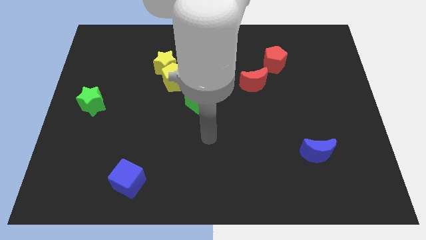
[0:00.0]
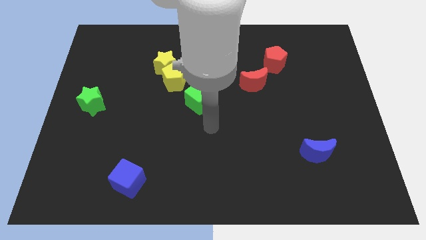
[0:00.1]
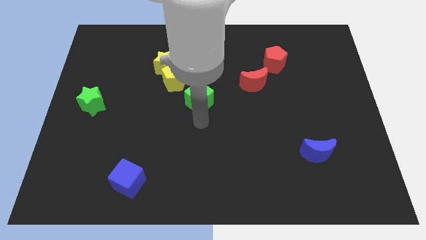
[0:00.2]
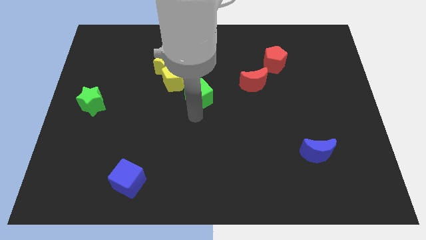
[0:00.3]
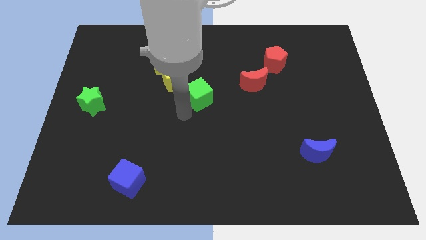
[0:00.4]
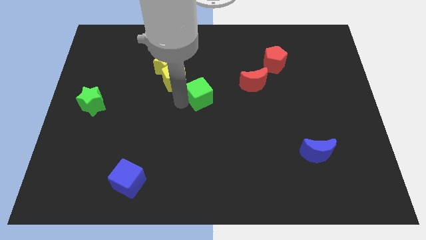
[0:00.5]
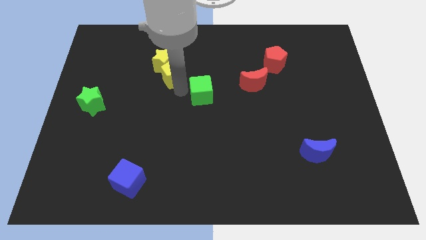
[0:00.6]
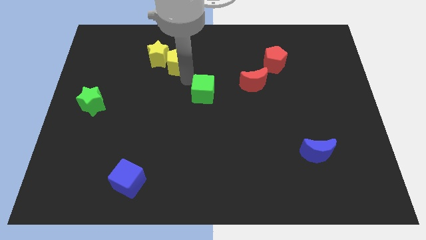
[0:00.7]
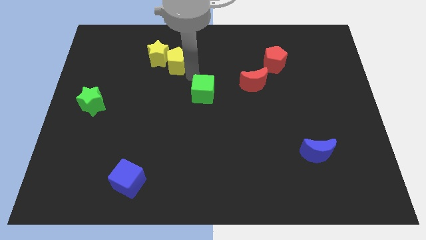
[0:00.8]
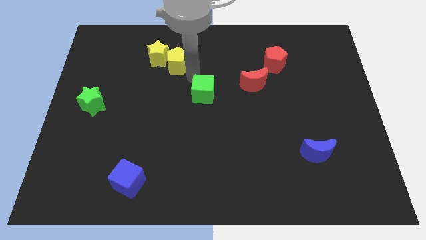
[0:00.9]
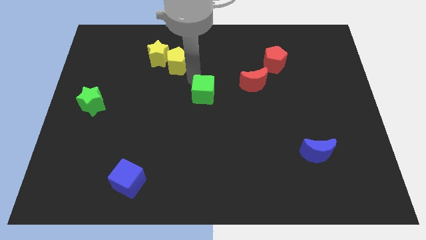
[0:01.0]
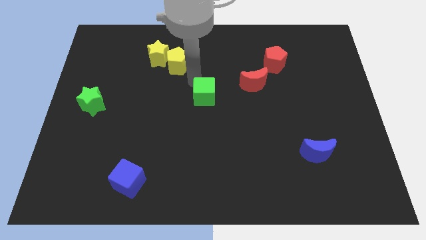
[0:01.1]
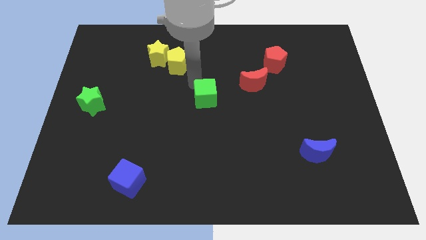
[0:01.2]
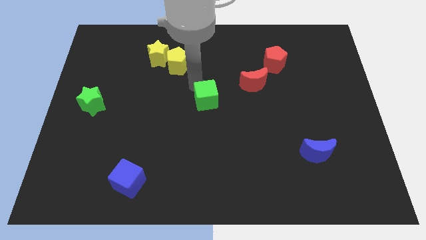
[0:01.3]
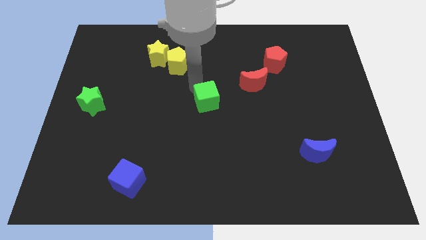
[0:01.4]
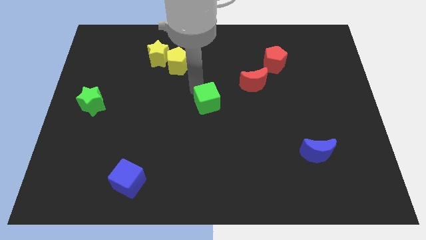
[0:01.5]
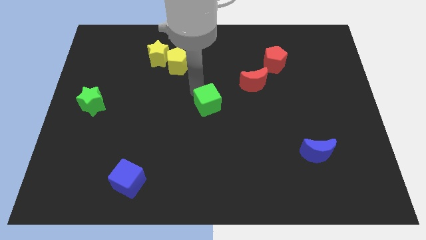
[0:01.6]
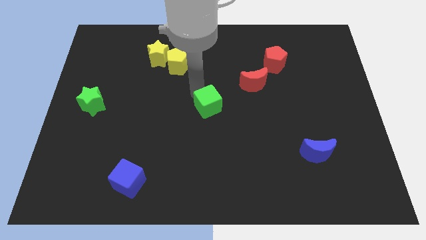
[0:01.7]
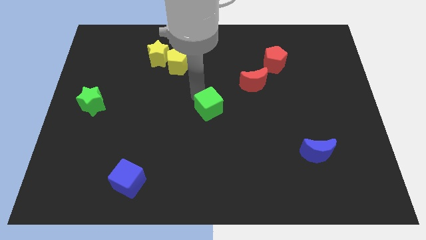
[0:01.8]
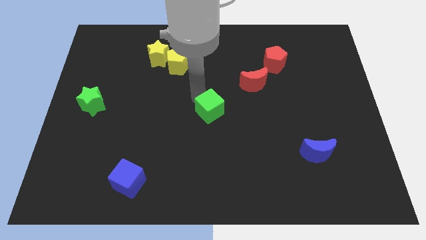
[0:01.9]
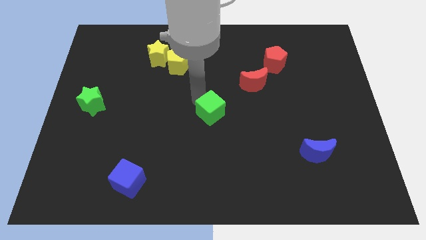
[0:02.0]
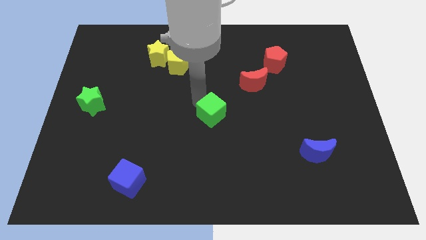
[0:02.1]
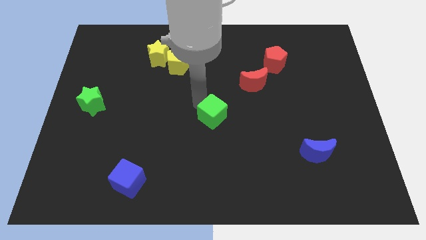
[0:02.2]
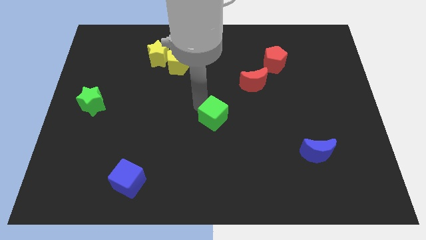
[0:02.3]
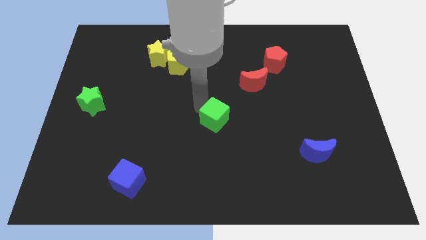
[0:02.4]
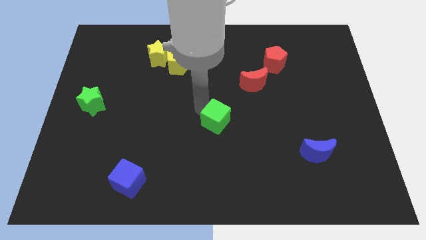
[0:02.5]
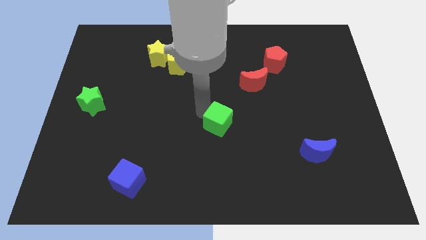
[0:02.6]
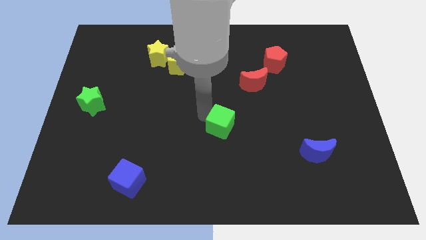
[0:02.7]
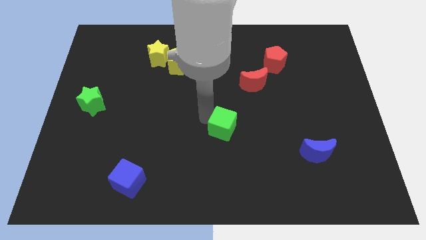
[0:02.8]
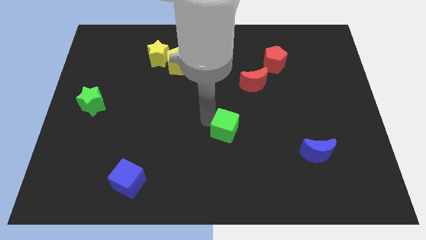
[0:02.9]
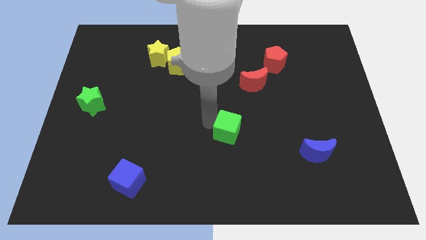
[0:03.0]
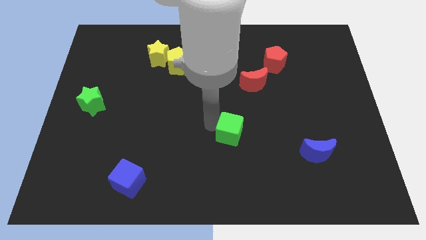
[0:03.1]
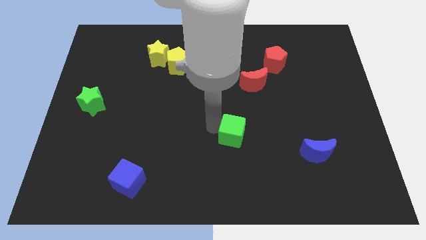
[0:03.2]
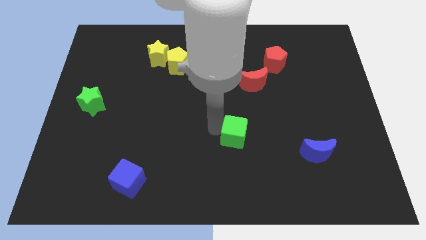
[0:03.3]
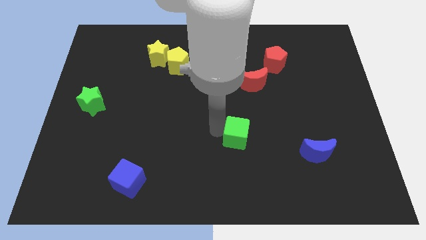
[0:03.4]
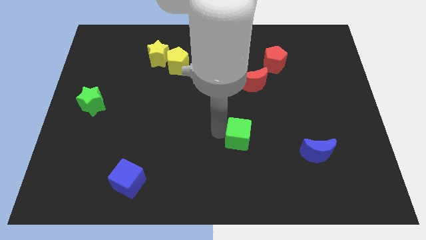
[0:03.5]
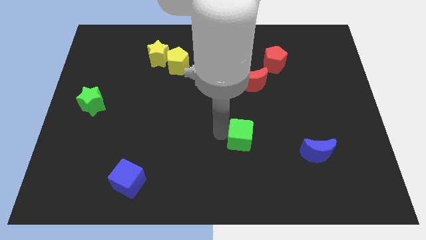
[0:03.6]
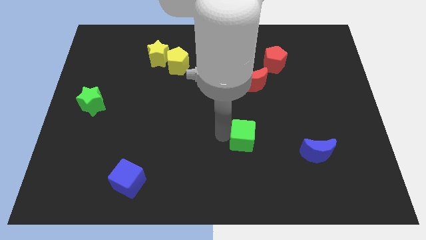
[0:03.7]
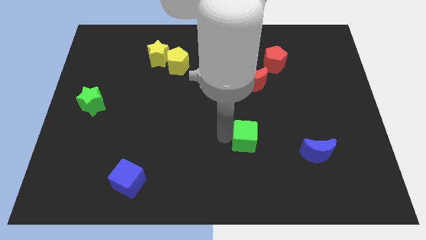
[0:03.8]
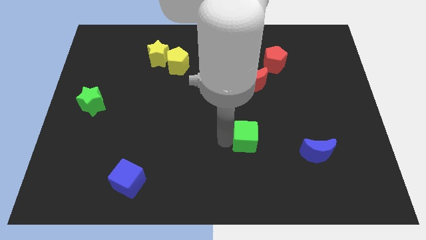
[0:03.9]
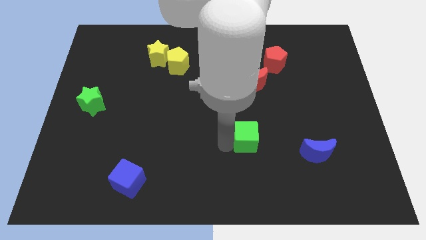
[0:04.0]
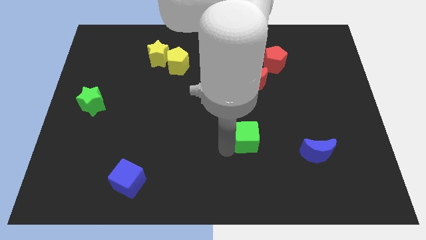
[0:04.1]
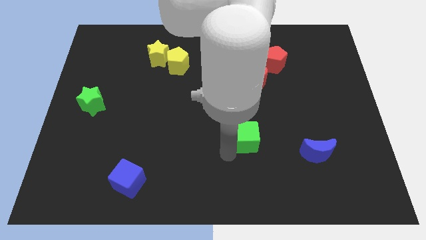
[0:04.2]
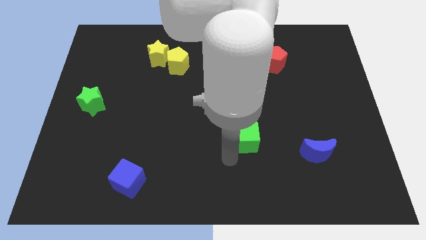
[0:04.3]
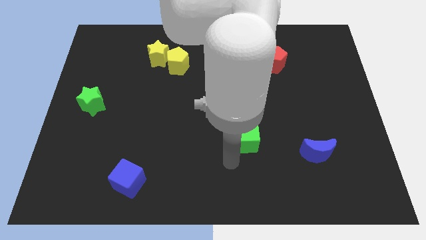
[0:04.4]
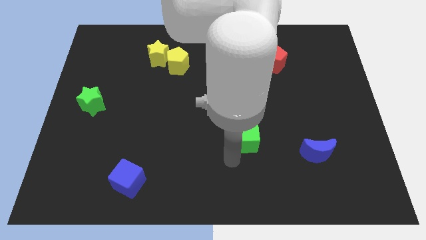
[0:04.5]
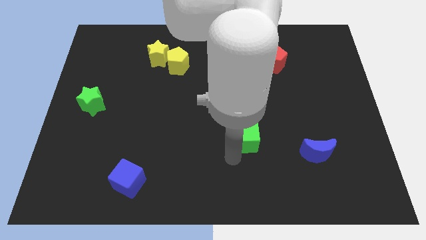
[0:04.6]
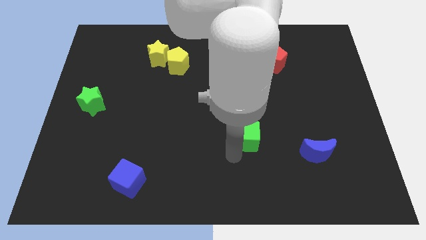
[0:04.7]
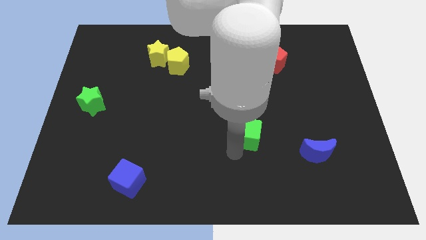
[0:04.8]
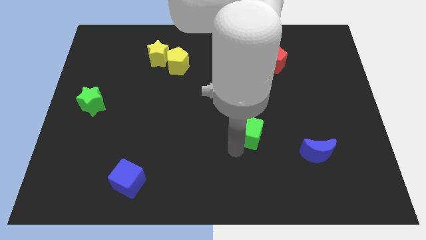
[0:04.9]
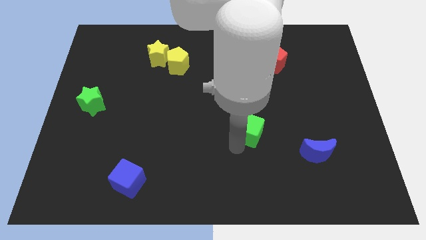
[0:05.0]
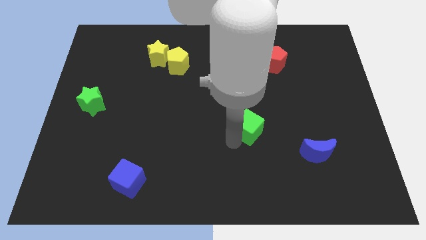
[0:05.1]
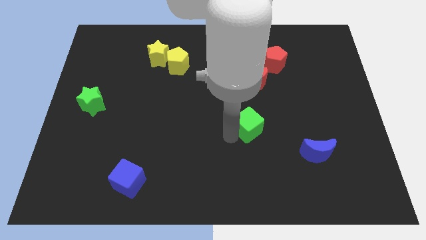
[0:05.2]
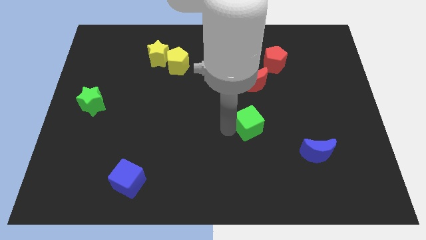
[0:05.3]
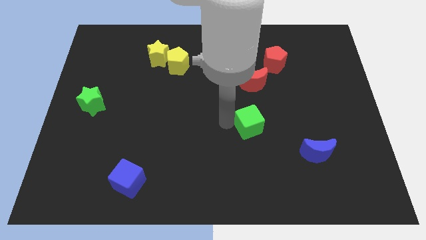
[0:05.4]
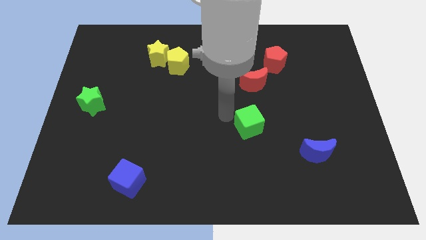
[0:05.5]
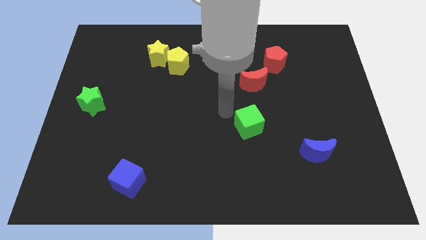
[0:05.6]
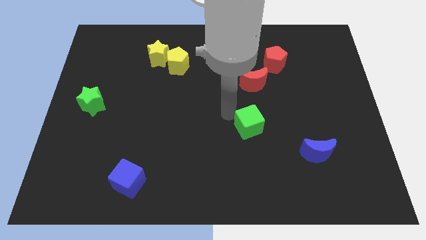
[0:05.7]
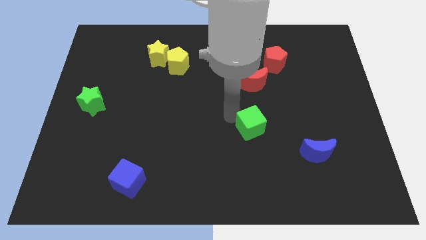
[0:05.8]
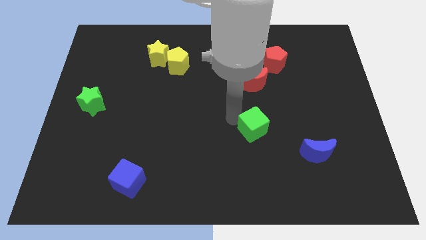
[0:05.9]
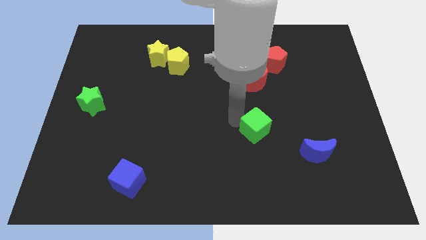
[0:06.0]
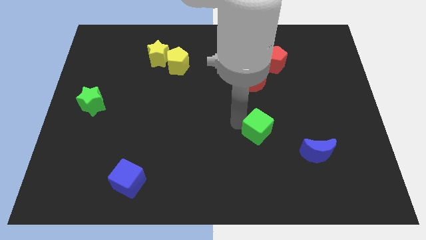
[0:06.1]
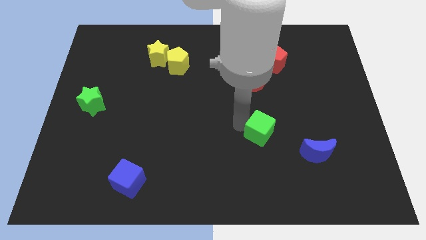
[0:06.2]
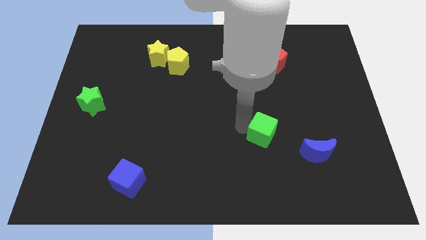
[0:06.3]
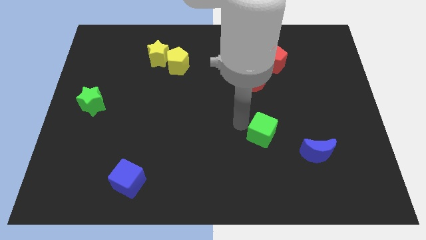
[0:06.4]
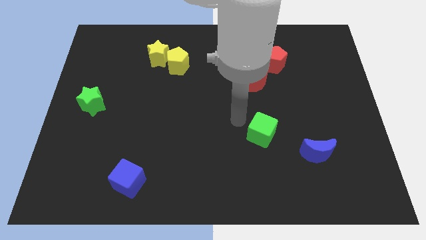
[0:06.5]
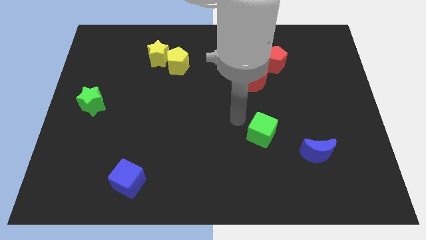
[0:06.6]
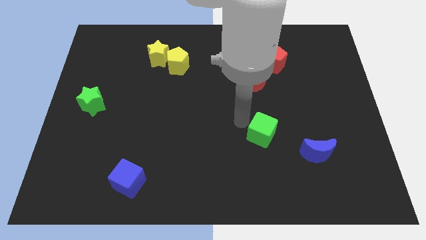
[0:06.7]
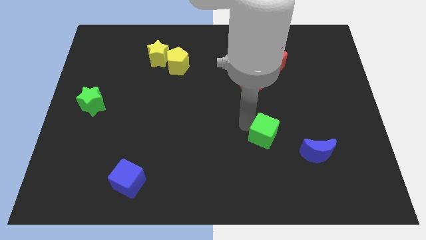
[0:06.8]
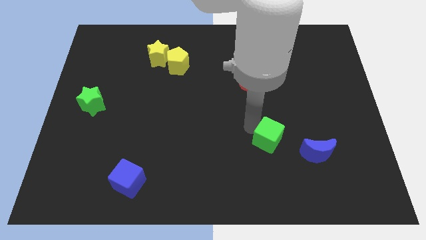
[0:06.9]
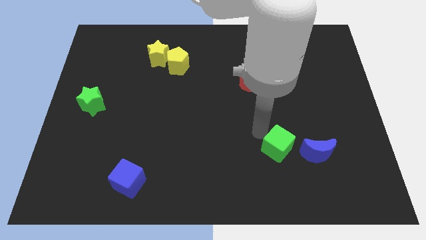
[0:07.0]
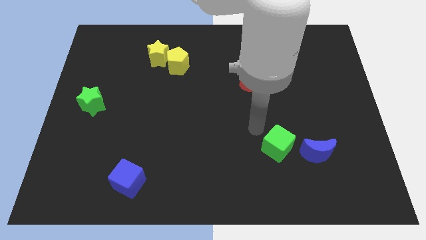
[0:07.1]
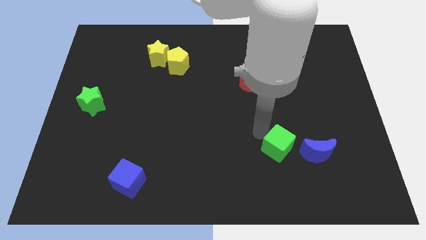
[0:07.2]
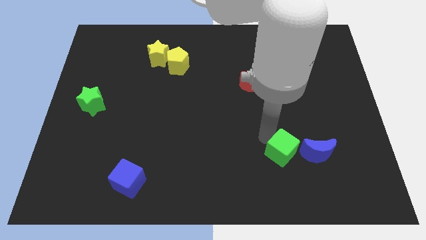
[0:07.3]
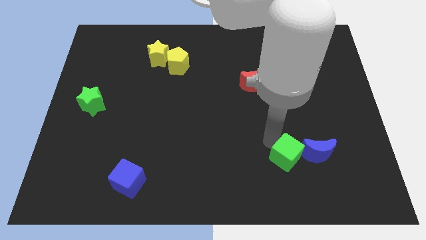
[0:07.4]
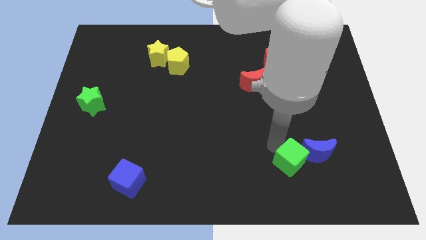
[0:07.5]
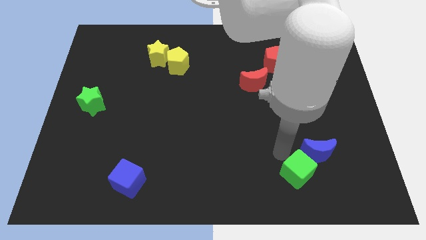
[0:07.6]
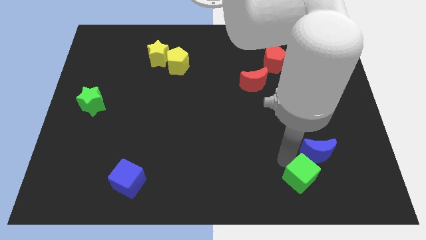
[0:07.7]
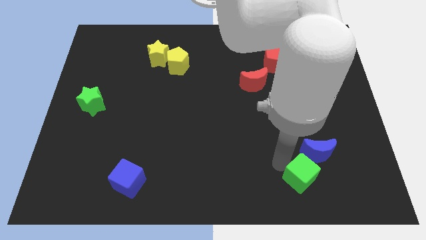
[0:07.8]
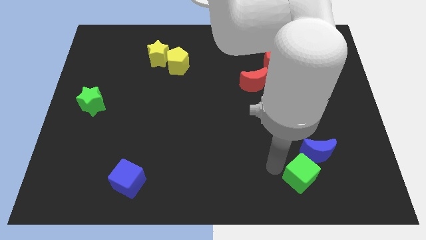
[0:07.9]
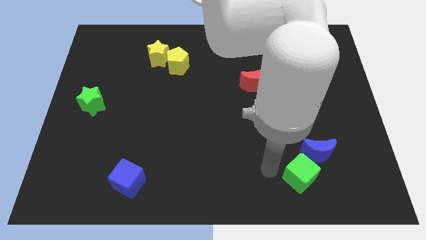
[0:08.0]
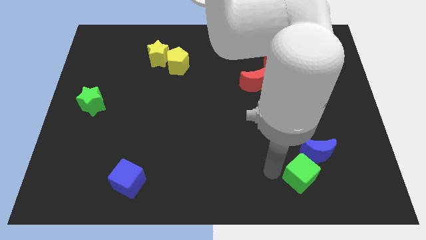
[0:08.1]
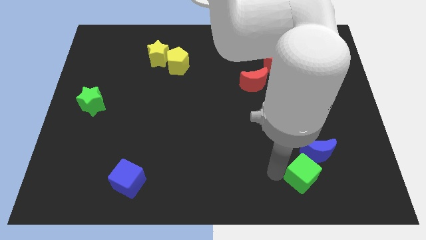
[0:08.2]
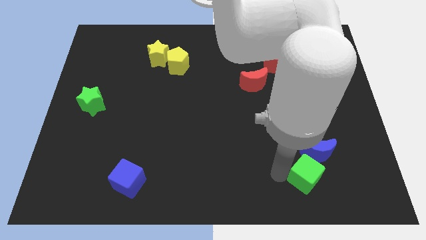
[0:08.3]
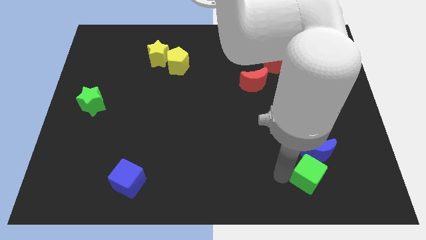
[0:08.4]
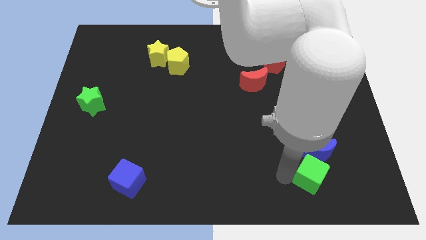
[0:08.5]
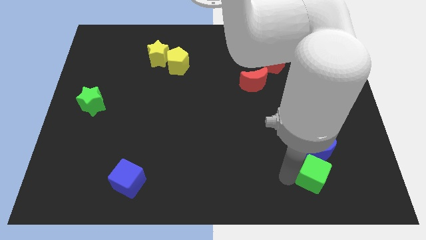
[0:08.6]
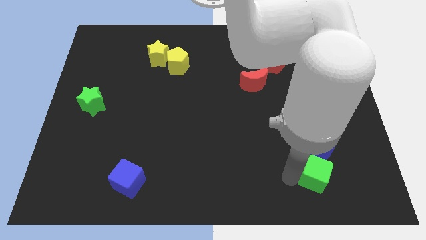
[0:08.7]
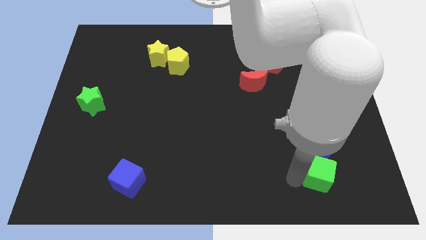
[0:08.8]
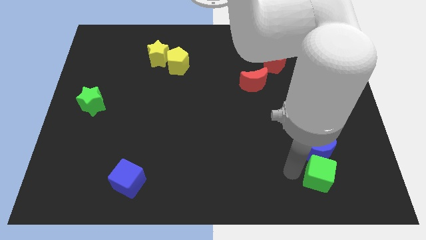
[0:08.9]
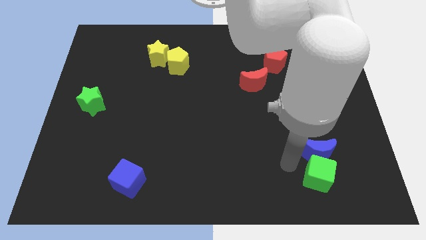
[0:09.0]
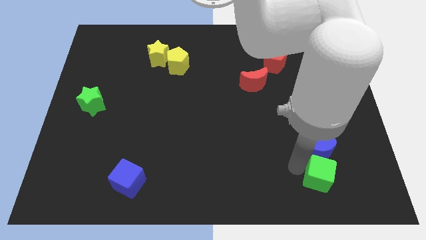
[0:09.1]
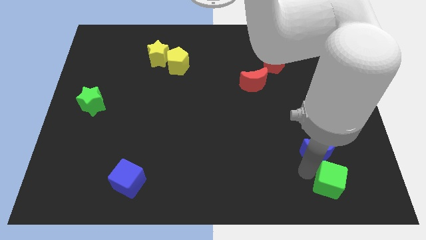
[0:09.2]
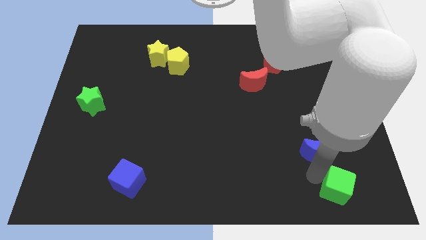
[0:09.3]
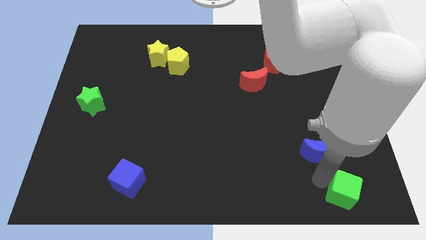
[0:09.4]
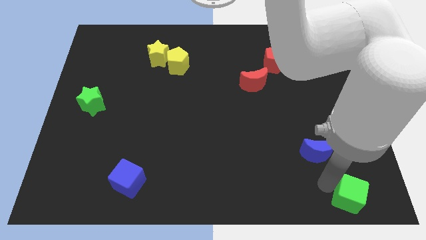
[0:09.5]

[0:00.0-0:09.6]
move the green cube to the lower right corner
